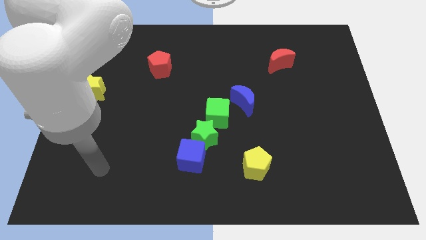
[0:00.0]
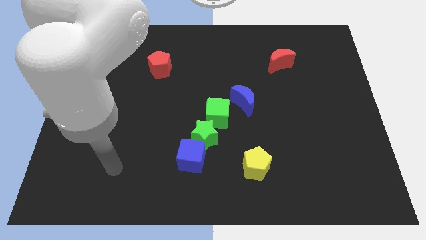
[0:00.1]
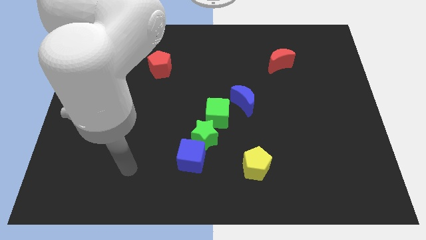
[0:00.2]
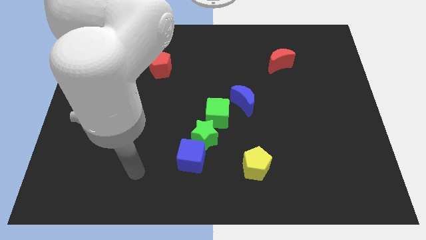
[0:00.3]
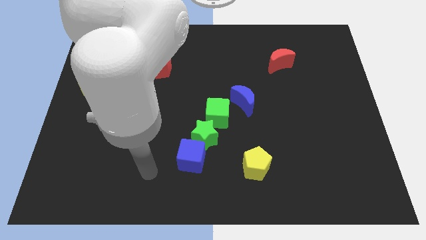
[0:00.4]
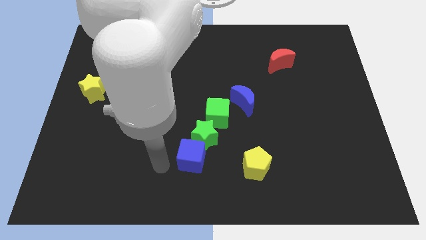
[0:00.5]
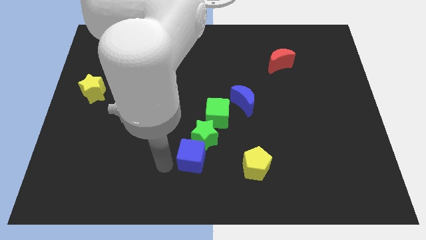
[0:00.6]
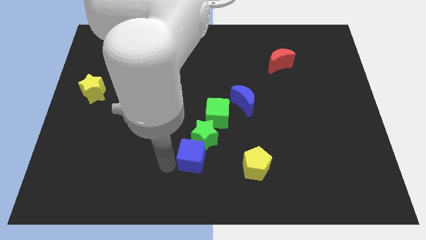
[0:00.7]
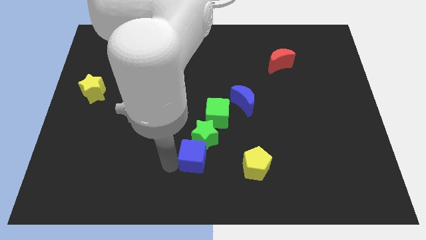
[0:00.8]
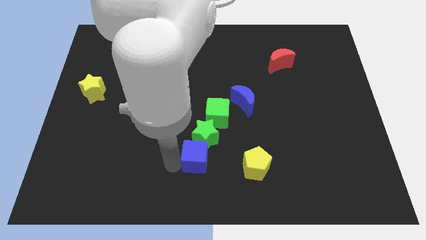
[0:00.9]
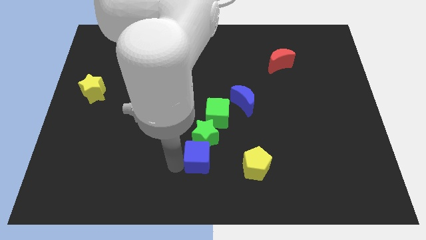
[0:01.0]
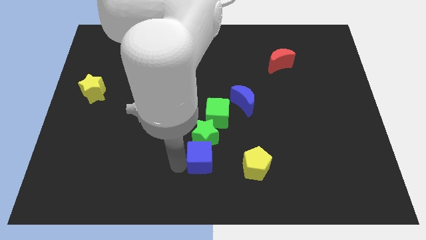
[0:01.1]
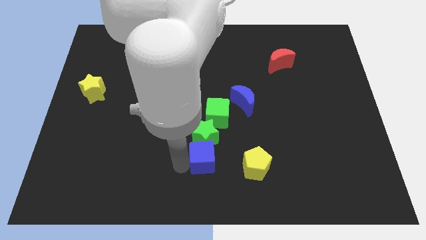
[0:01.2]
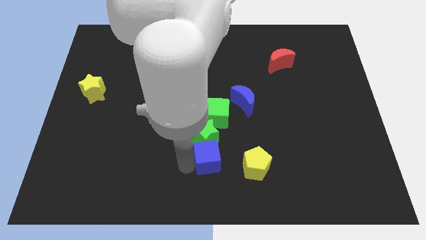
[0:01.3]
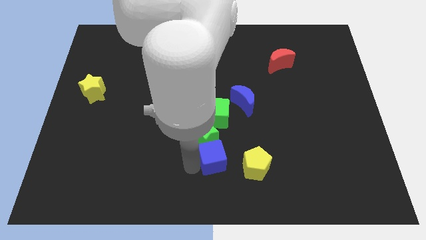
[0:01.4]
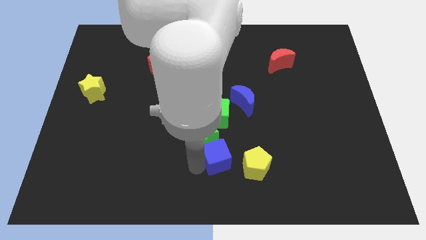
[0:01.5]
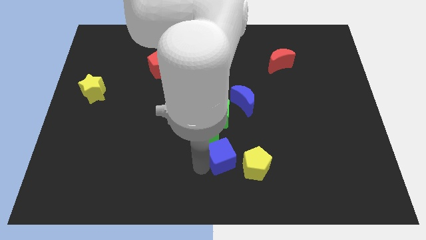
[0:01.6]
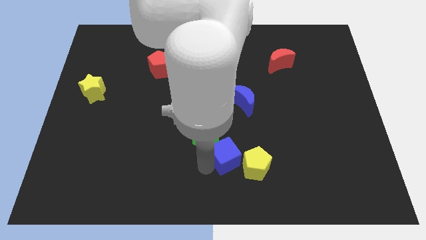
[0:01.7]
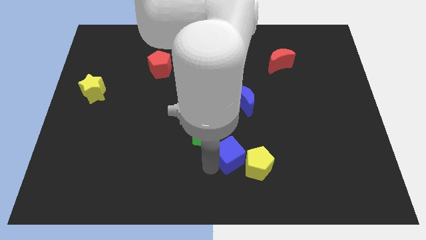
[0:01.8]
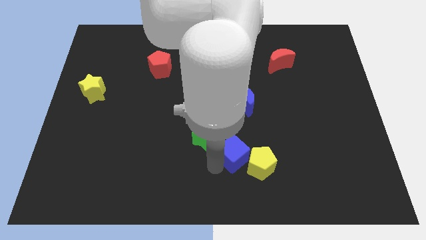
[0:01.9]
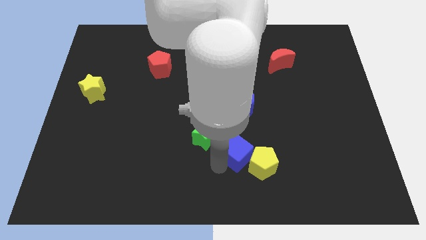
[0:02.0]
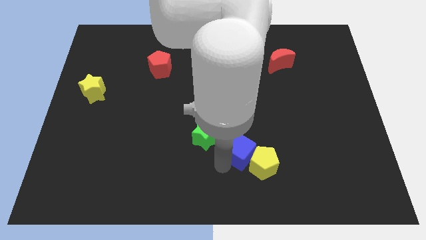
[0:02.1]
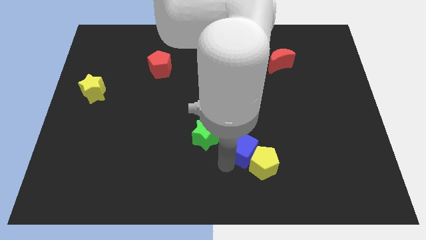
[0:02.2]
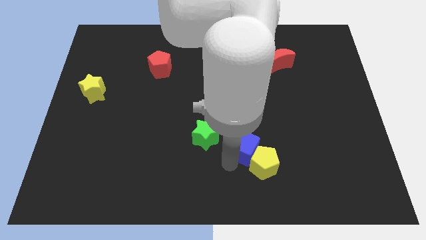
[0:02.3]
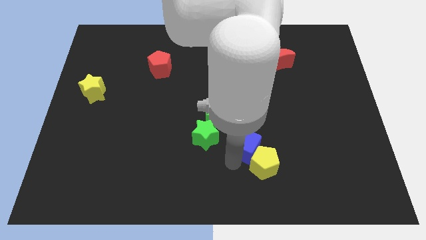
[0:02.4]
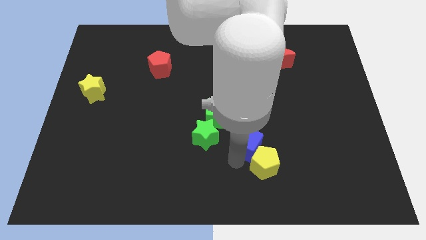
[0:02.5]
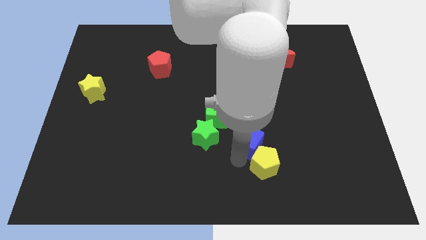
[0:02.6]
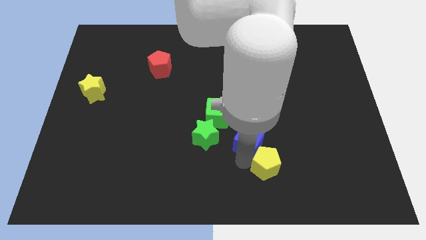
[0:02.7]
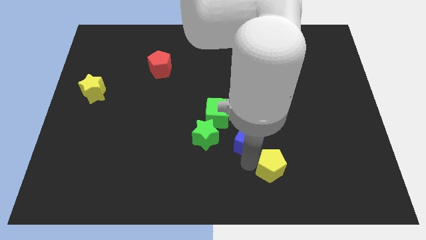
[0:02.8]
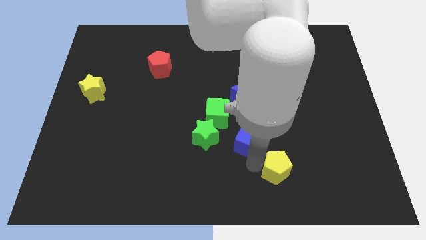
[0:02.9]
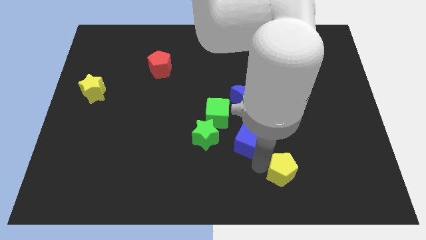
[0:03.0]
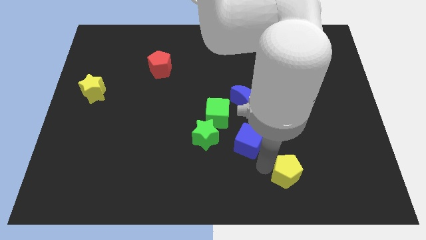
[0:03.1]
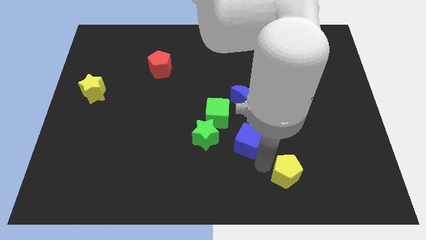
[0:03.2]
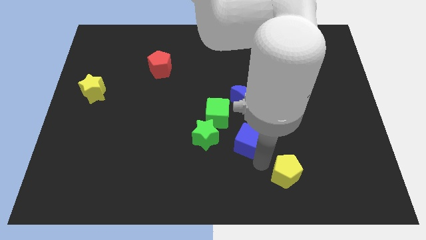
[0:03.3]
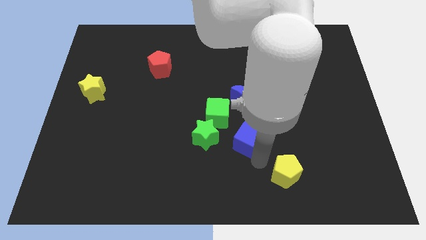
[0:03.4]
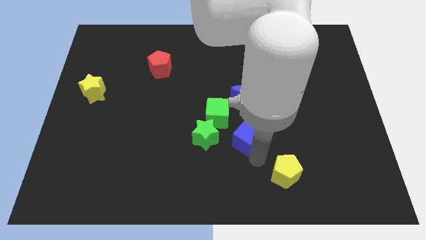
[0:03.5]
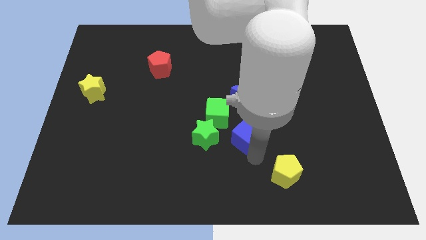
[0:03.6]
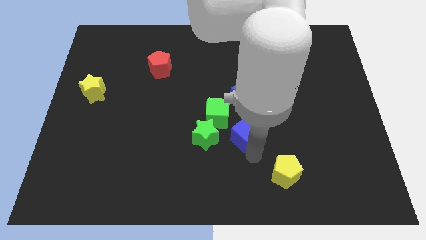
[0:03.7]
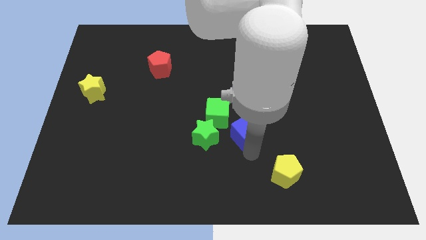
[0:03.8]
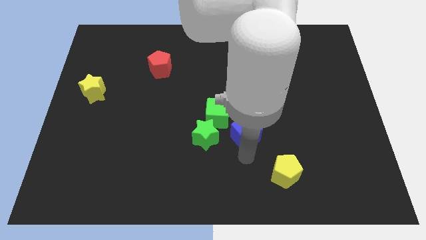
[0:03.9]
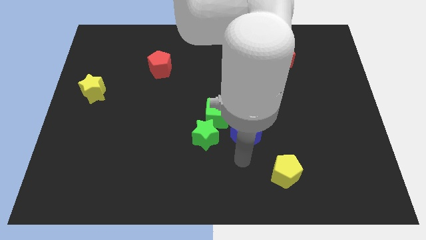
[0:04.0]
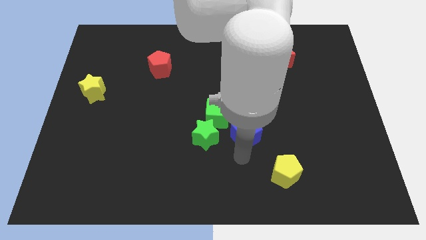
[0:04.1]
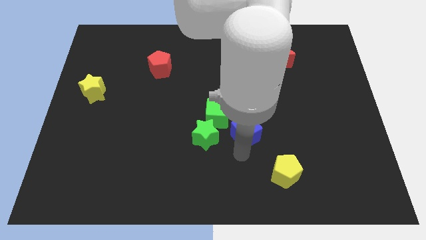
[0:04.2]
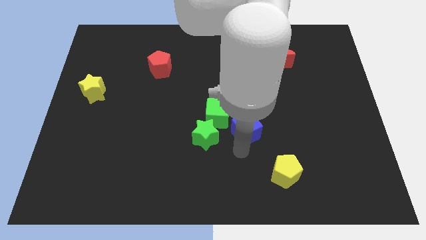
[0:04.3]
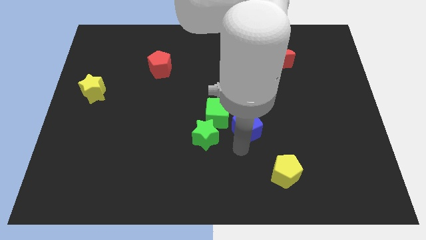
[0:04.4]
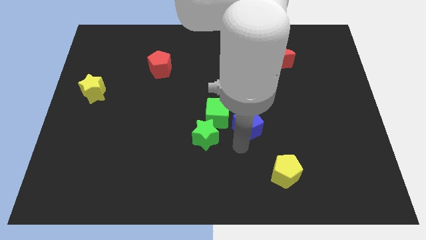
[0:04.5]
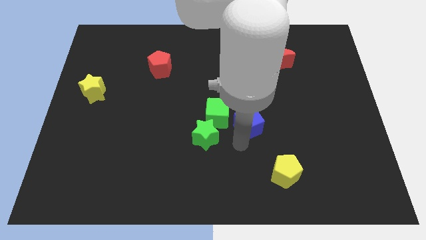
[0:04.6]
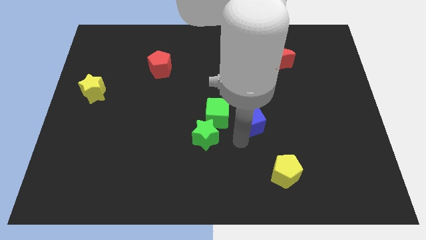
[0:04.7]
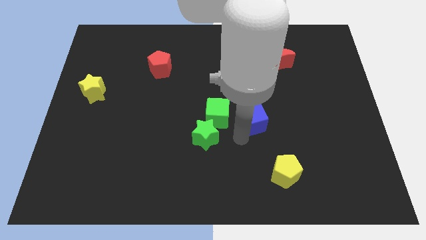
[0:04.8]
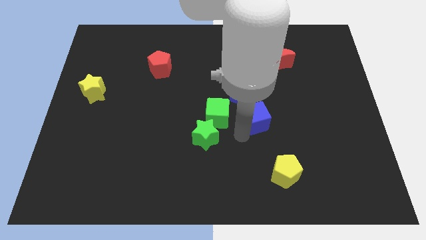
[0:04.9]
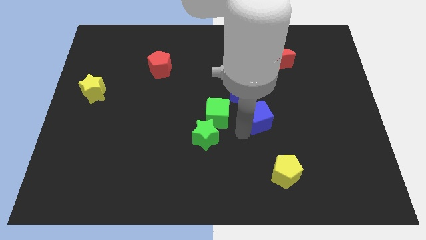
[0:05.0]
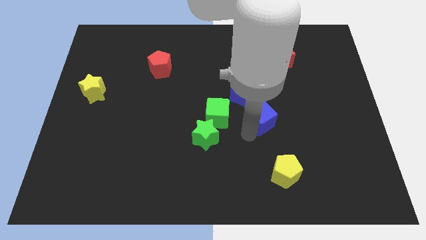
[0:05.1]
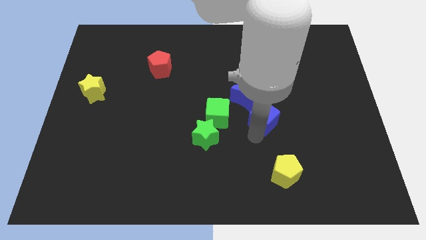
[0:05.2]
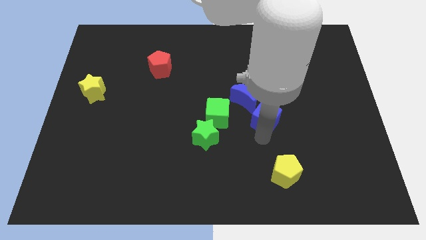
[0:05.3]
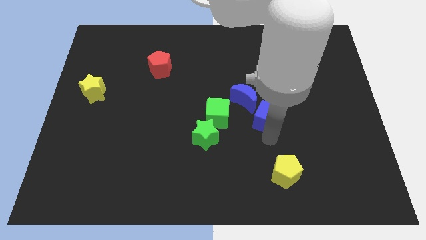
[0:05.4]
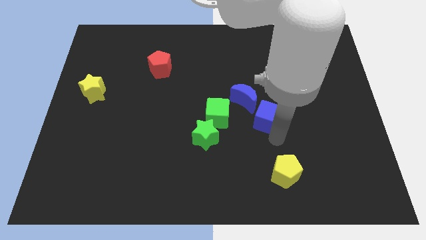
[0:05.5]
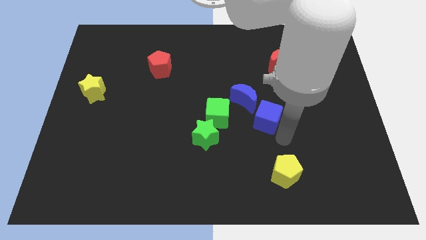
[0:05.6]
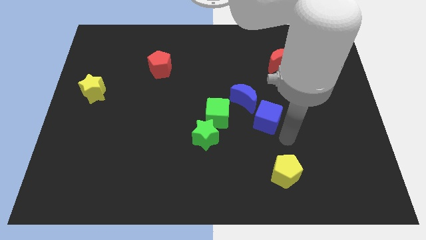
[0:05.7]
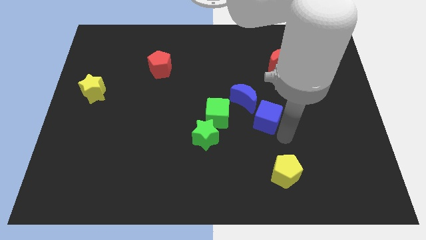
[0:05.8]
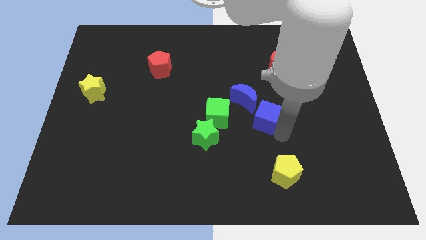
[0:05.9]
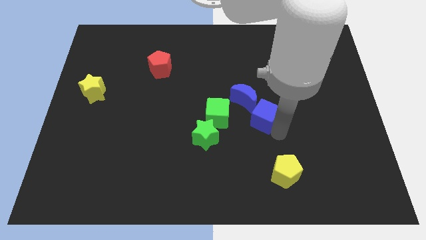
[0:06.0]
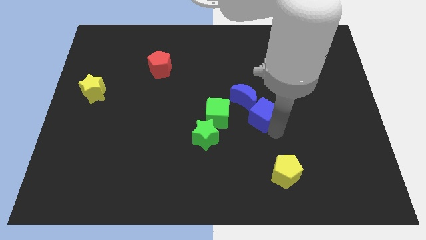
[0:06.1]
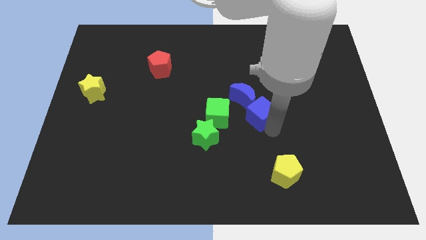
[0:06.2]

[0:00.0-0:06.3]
move the blue cube towards the blue moon
